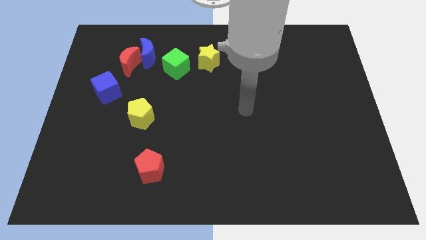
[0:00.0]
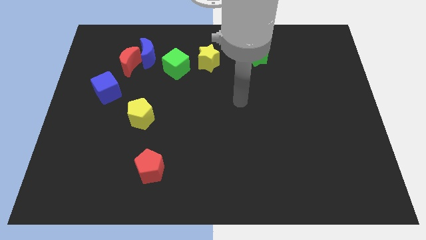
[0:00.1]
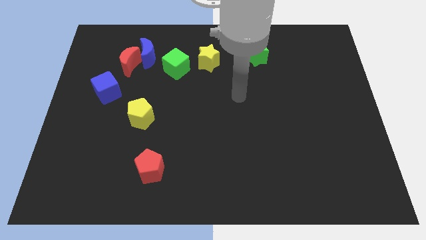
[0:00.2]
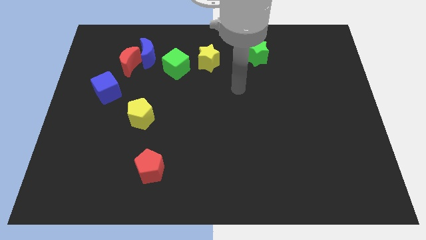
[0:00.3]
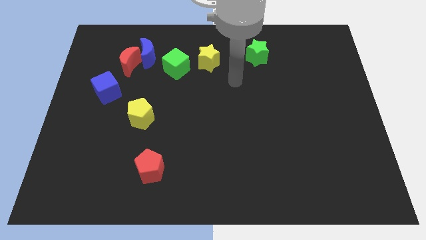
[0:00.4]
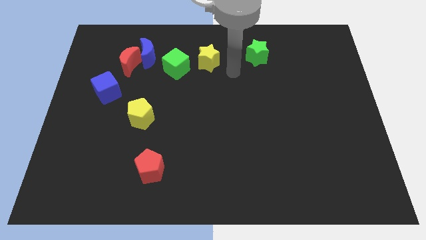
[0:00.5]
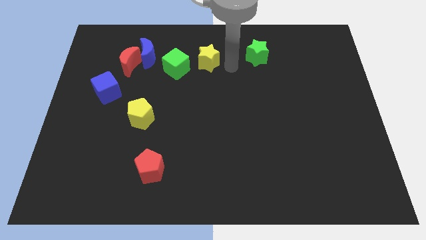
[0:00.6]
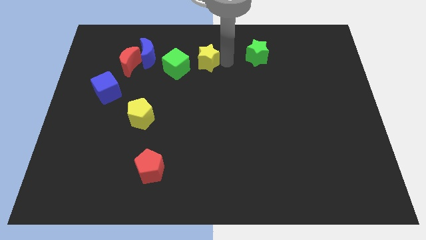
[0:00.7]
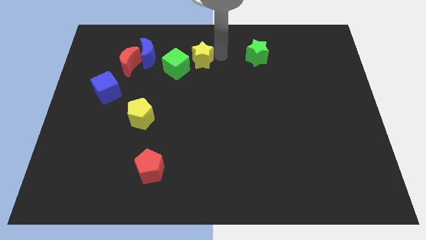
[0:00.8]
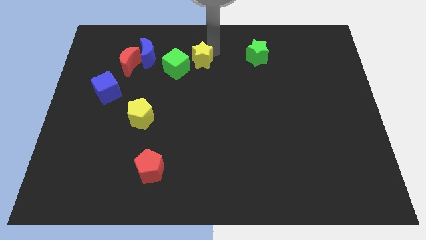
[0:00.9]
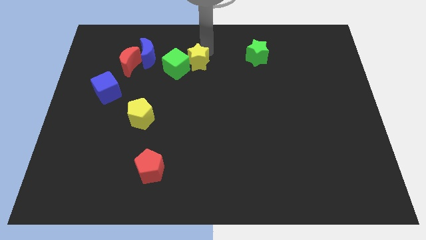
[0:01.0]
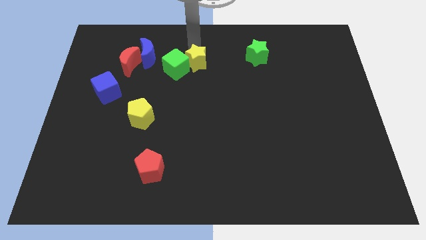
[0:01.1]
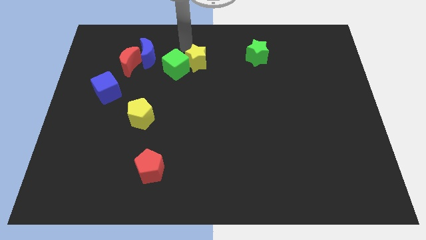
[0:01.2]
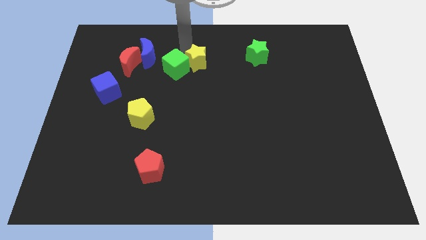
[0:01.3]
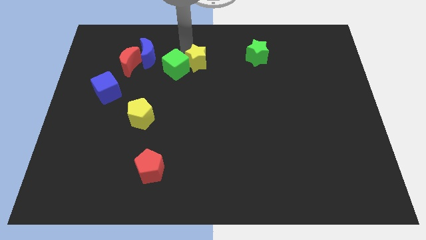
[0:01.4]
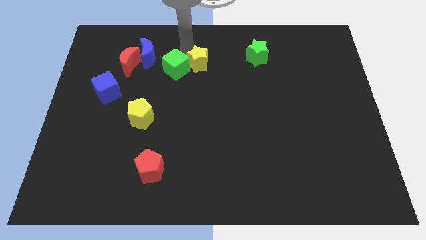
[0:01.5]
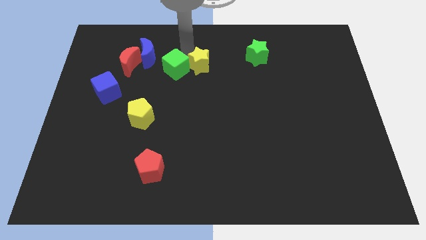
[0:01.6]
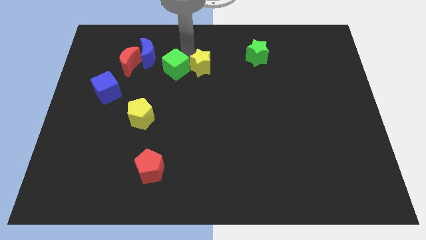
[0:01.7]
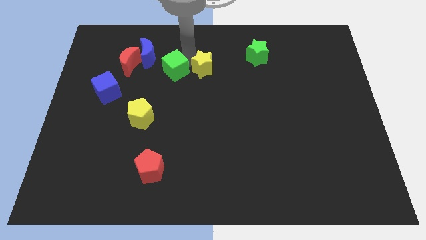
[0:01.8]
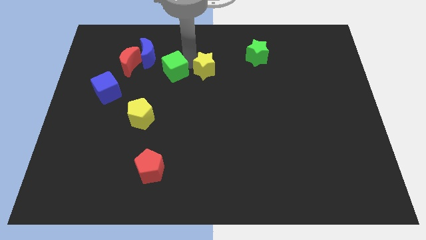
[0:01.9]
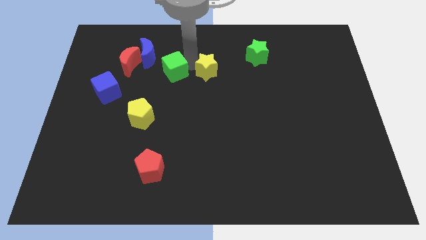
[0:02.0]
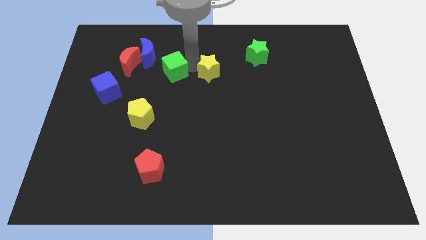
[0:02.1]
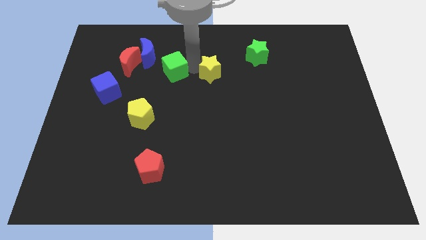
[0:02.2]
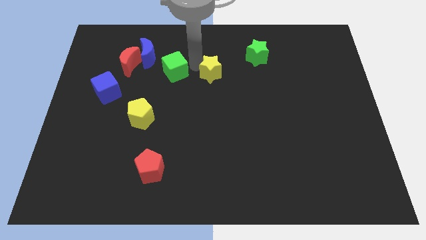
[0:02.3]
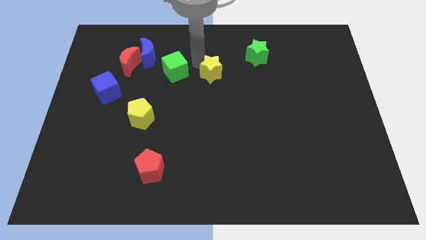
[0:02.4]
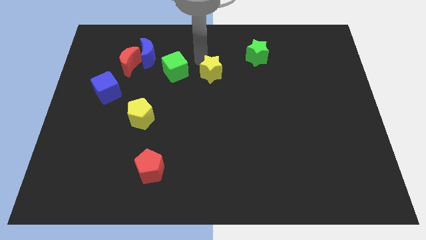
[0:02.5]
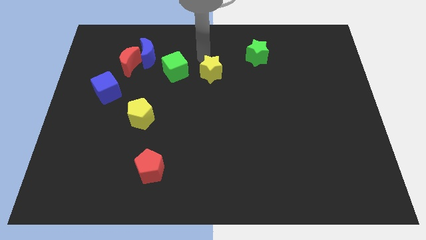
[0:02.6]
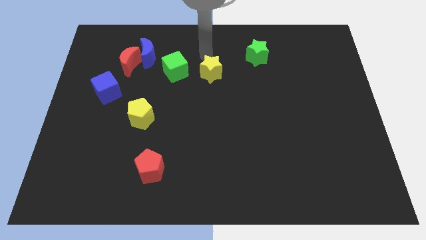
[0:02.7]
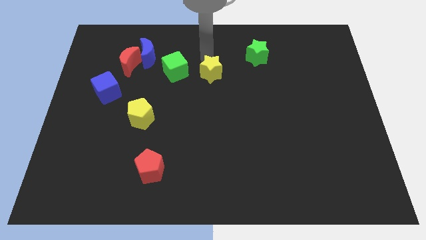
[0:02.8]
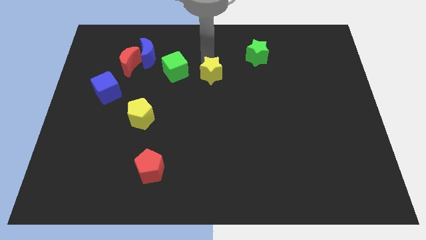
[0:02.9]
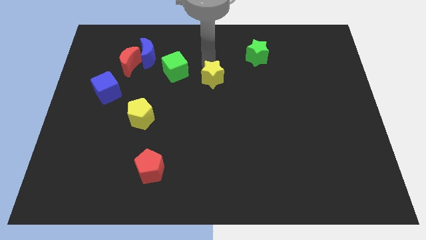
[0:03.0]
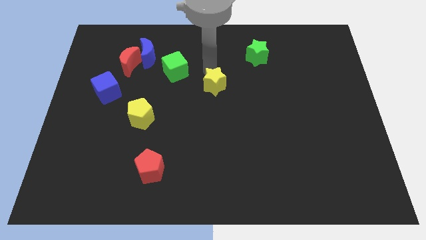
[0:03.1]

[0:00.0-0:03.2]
push the yellow star down somewhat

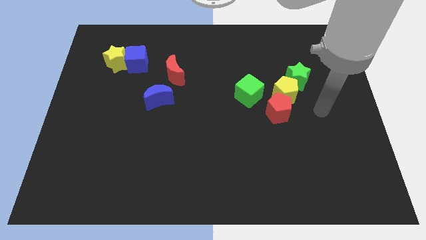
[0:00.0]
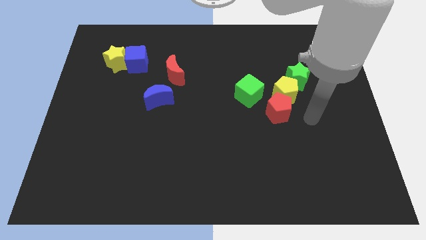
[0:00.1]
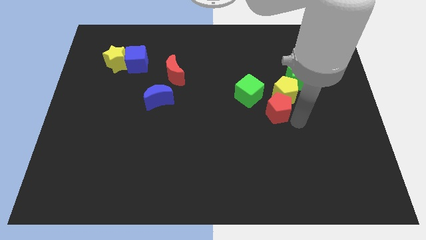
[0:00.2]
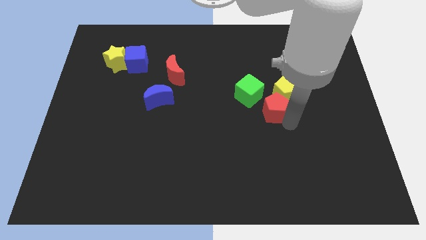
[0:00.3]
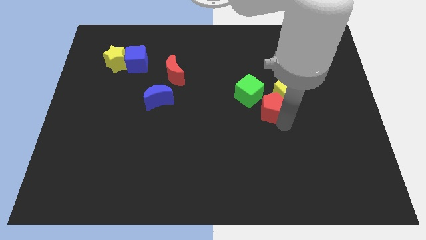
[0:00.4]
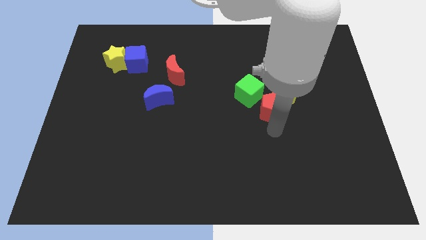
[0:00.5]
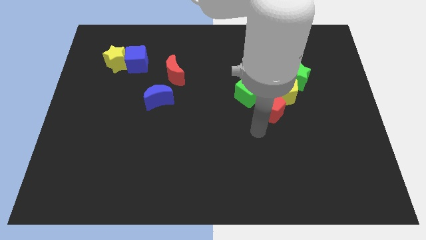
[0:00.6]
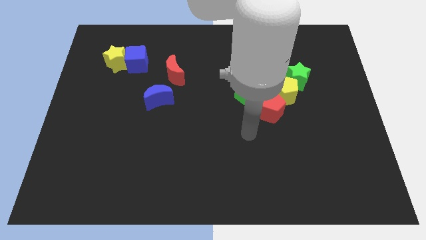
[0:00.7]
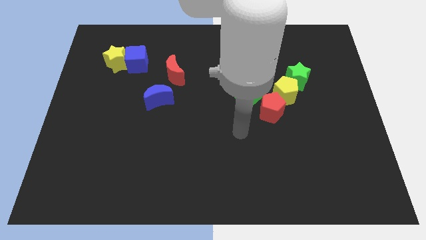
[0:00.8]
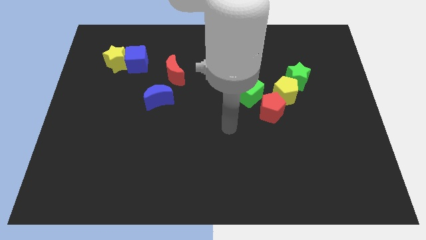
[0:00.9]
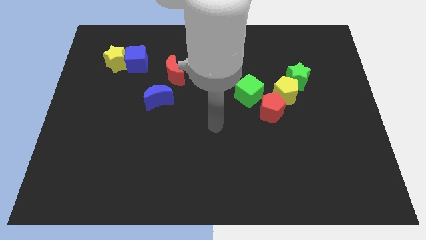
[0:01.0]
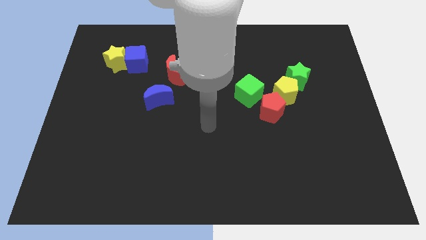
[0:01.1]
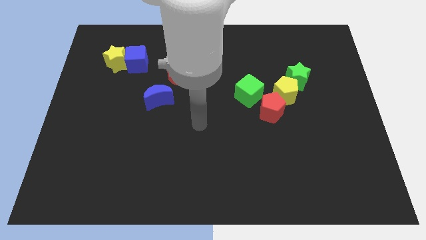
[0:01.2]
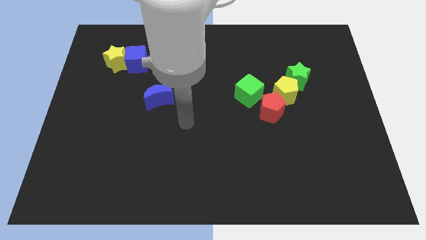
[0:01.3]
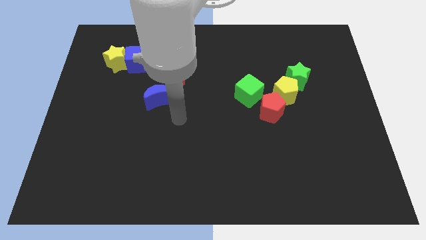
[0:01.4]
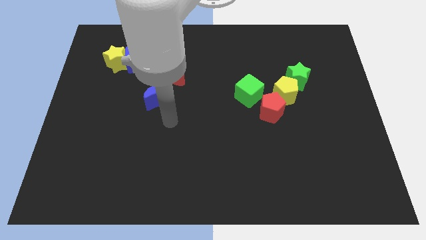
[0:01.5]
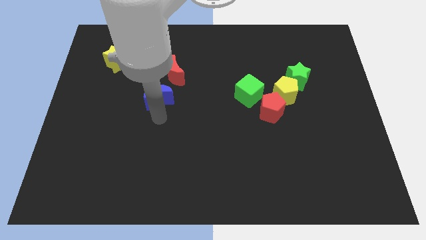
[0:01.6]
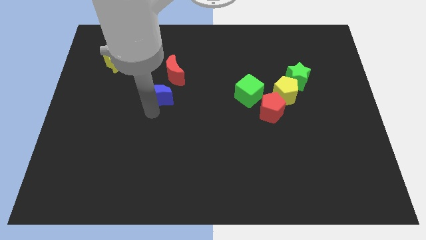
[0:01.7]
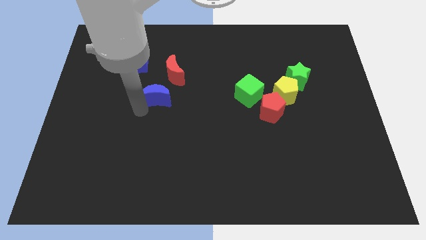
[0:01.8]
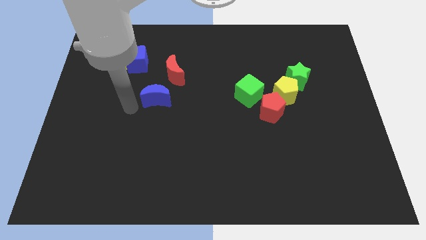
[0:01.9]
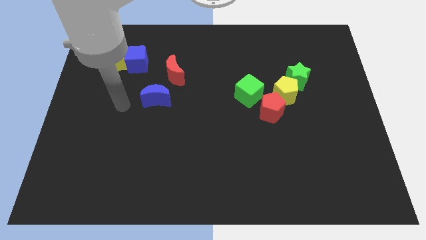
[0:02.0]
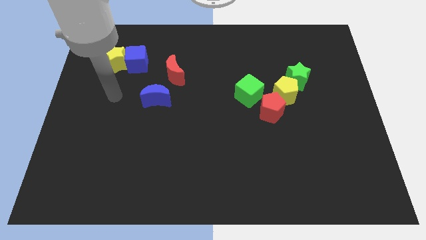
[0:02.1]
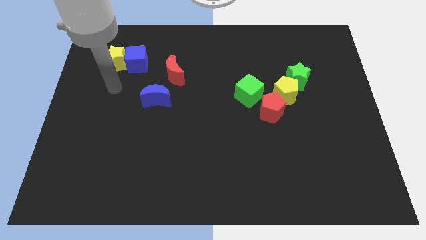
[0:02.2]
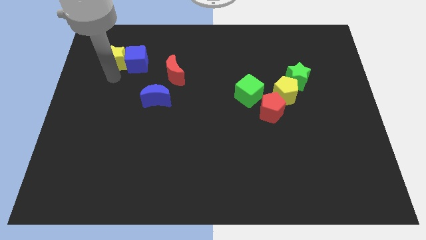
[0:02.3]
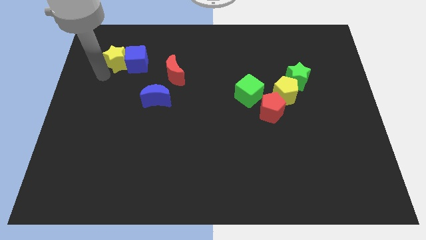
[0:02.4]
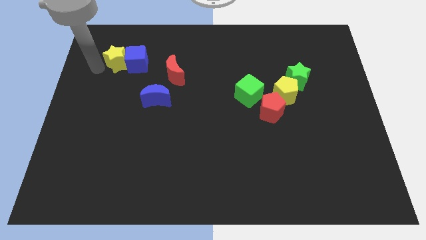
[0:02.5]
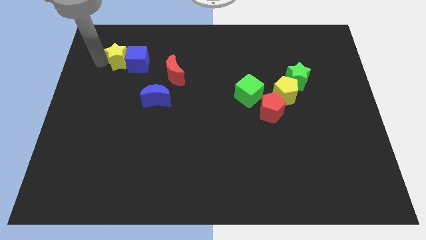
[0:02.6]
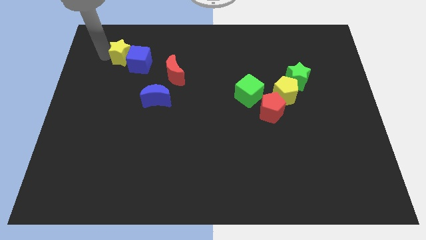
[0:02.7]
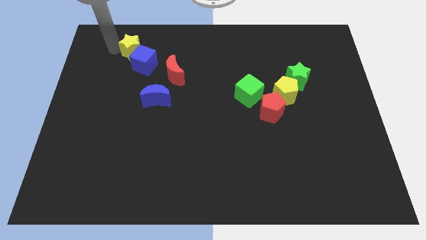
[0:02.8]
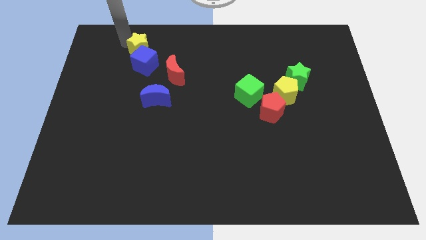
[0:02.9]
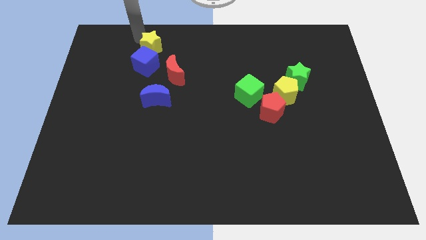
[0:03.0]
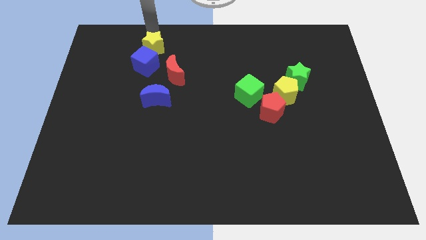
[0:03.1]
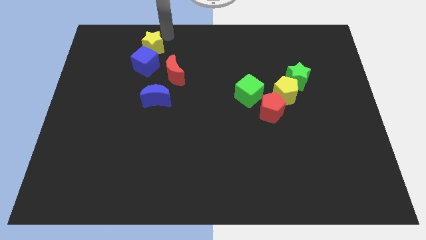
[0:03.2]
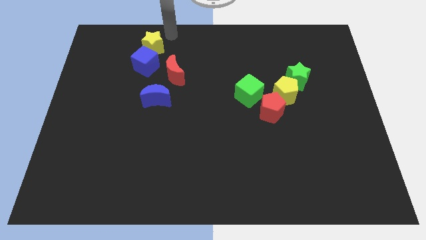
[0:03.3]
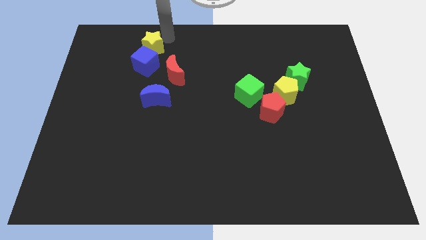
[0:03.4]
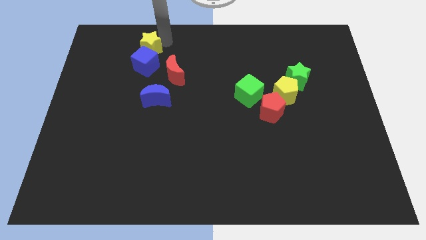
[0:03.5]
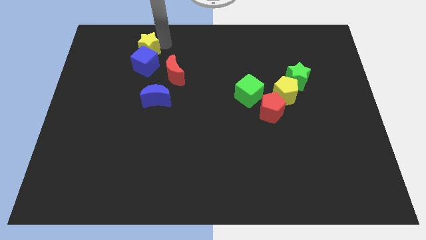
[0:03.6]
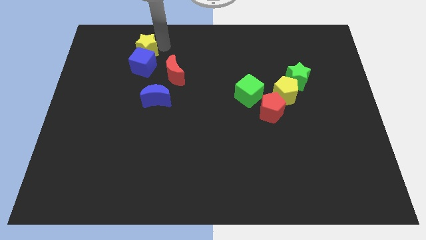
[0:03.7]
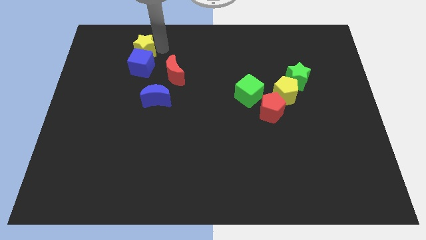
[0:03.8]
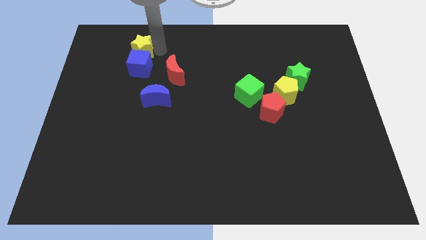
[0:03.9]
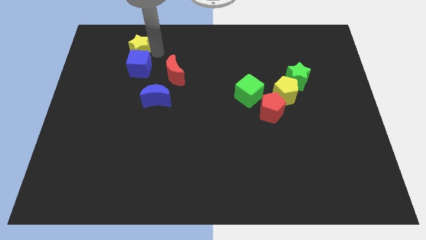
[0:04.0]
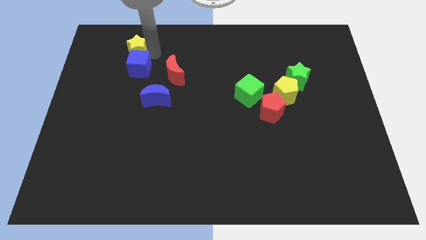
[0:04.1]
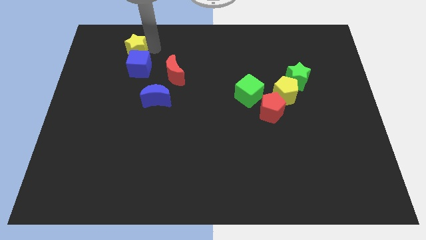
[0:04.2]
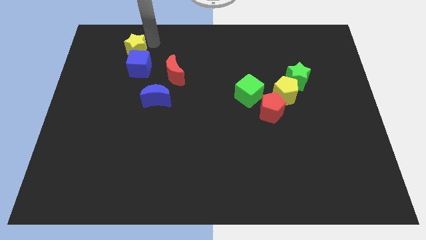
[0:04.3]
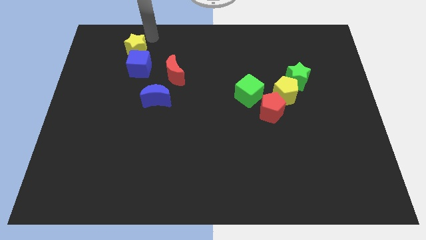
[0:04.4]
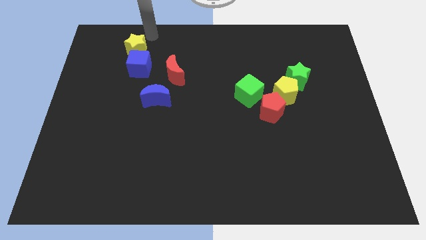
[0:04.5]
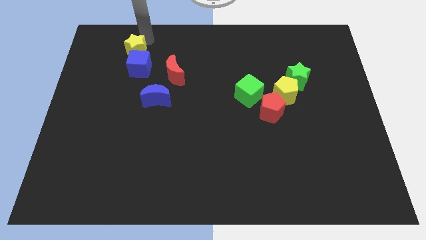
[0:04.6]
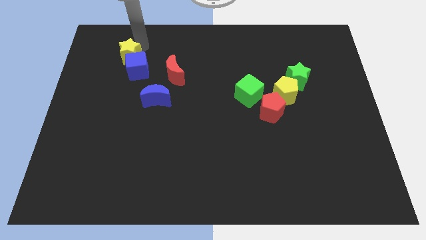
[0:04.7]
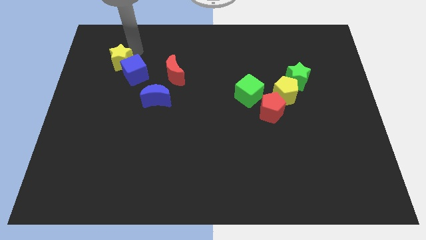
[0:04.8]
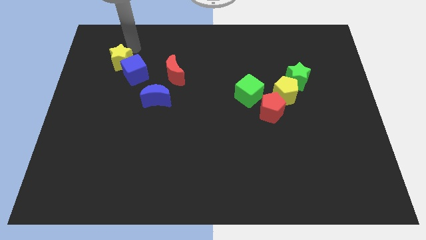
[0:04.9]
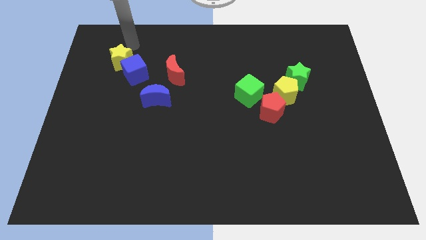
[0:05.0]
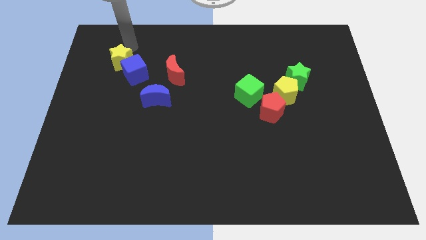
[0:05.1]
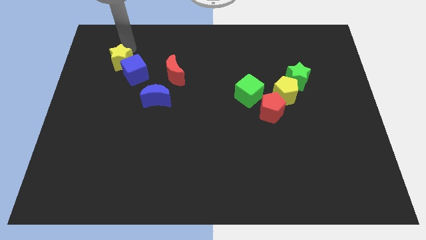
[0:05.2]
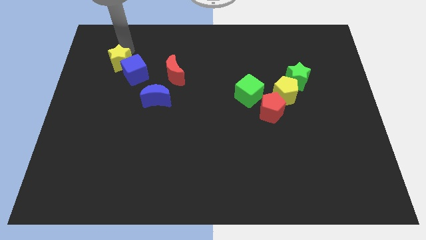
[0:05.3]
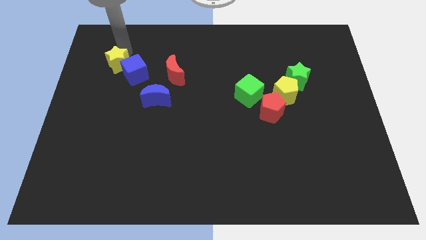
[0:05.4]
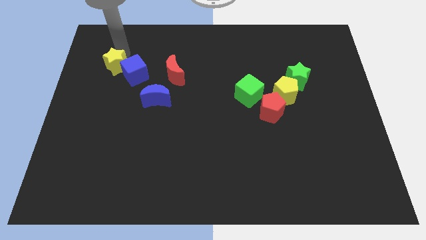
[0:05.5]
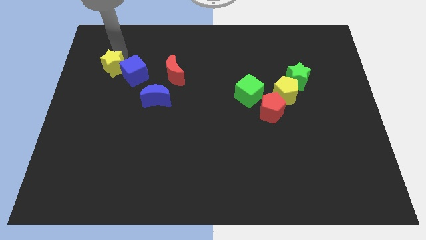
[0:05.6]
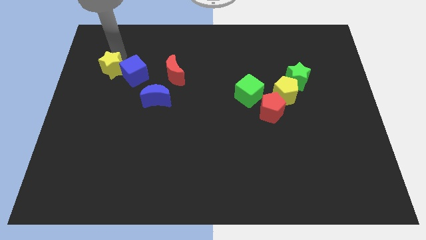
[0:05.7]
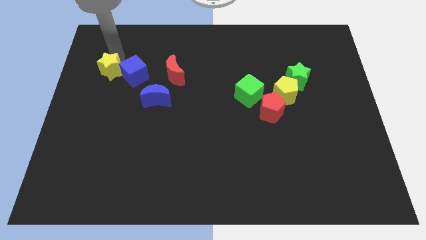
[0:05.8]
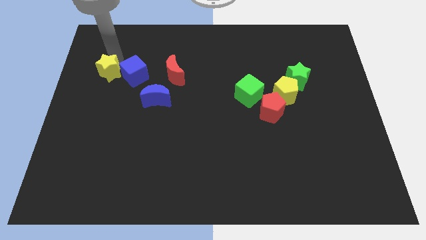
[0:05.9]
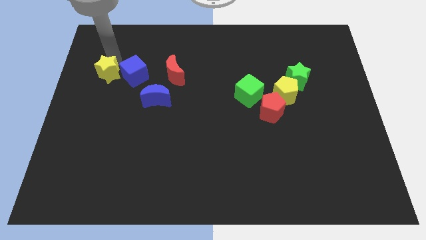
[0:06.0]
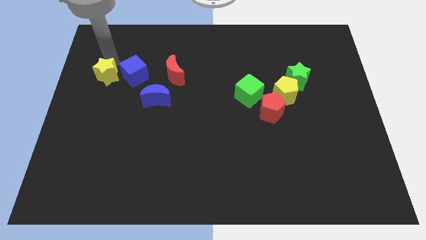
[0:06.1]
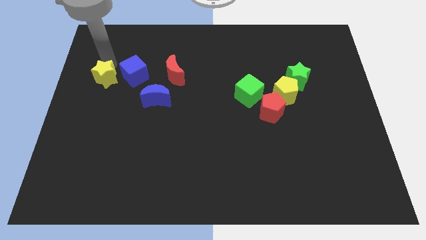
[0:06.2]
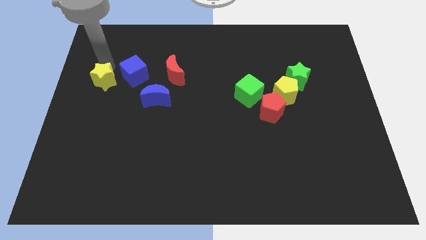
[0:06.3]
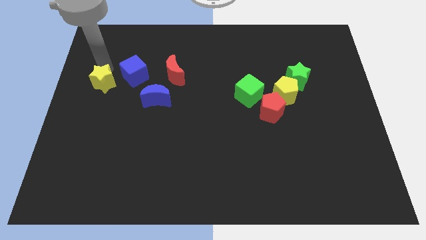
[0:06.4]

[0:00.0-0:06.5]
slide the yellow star downwards a little
